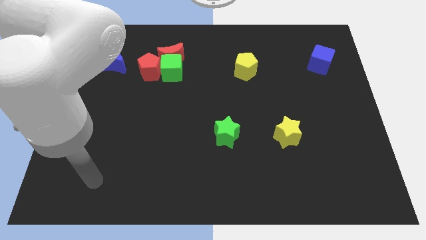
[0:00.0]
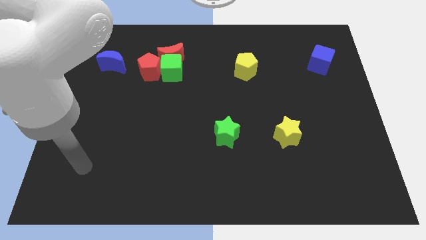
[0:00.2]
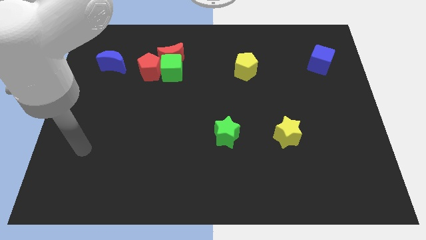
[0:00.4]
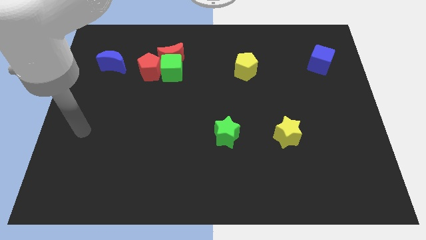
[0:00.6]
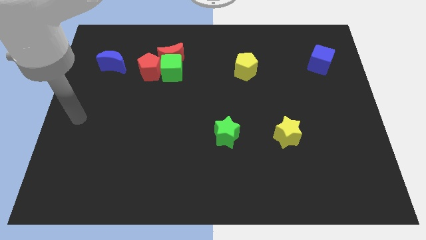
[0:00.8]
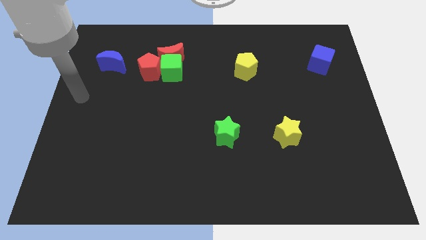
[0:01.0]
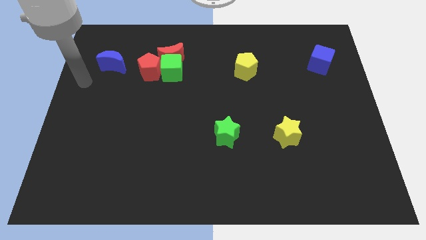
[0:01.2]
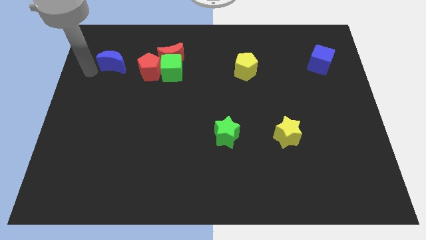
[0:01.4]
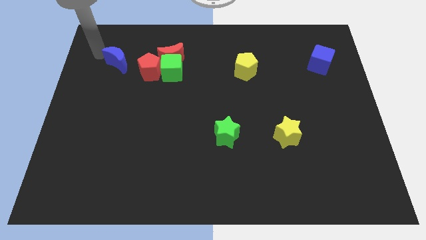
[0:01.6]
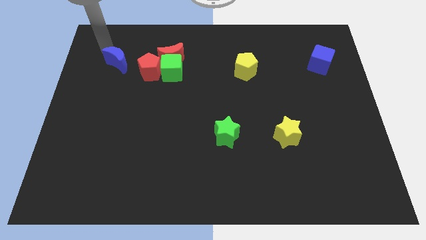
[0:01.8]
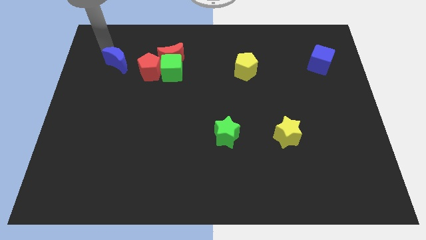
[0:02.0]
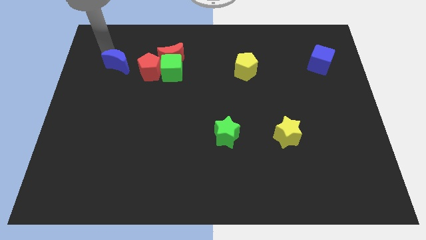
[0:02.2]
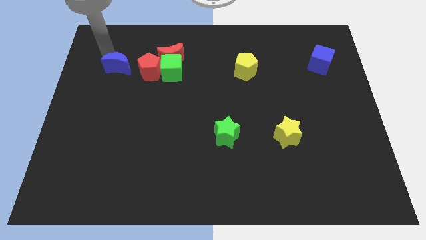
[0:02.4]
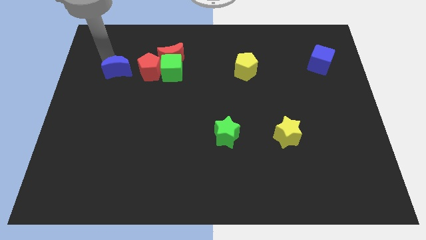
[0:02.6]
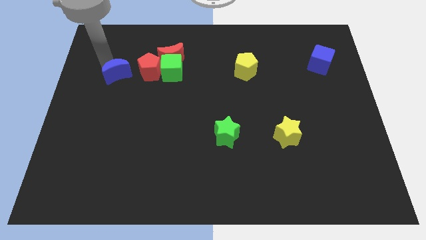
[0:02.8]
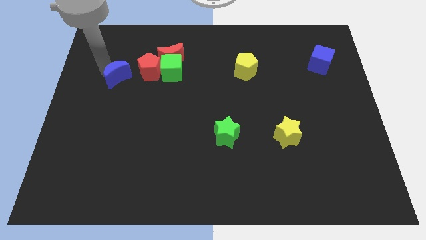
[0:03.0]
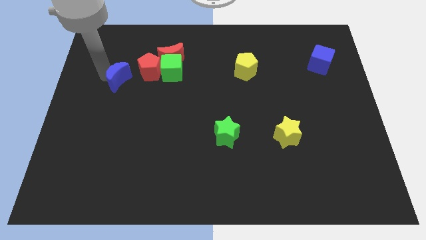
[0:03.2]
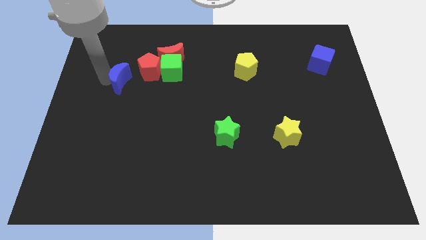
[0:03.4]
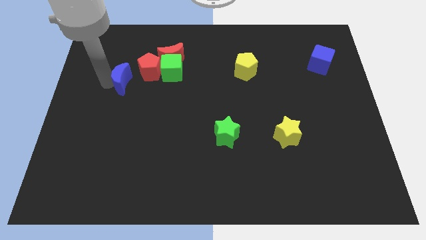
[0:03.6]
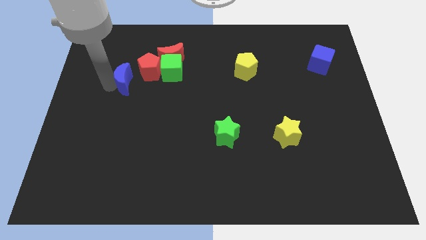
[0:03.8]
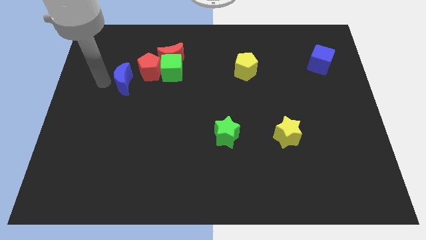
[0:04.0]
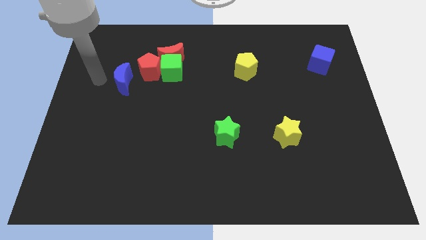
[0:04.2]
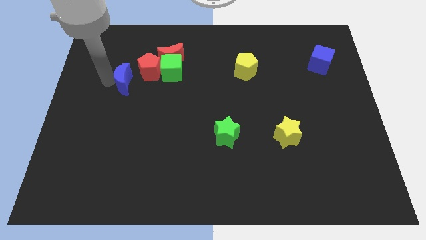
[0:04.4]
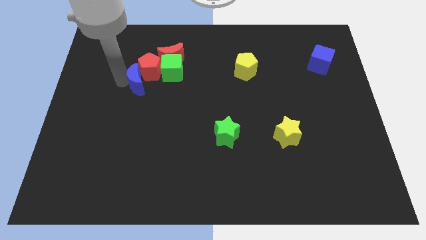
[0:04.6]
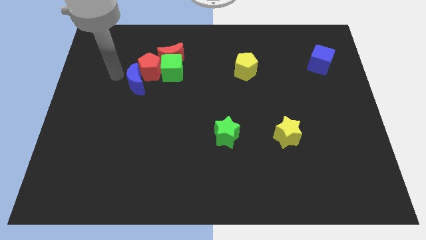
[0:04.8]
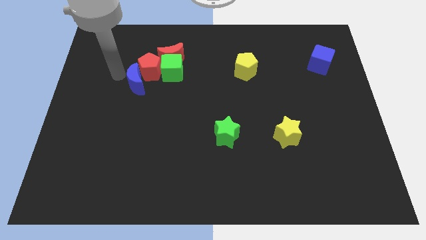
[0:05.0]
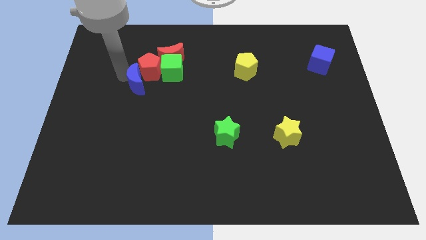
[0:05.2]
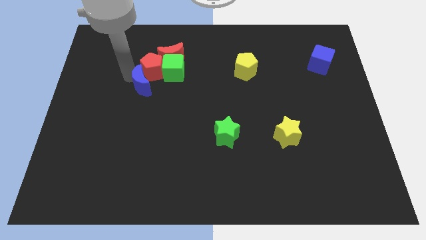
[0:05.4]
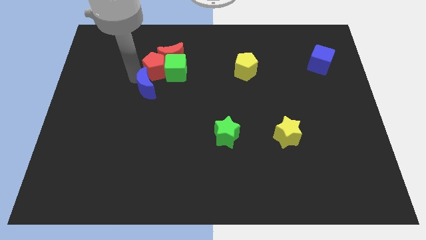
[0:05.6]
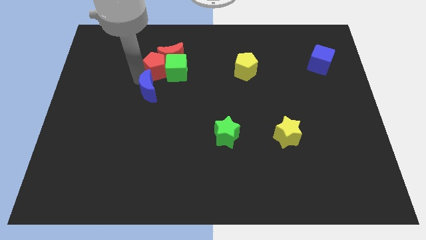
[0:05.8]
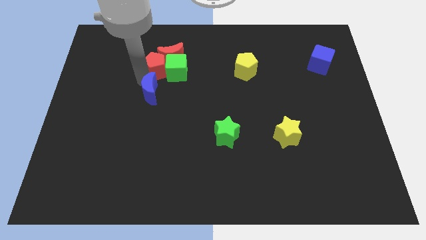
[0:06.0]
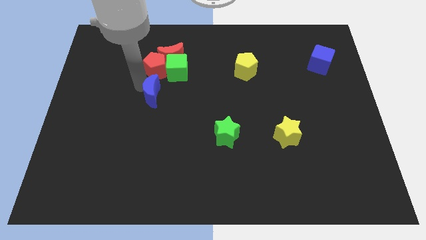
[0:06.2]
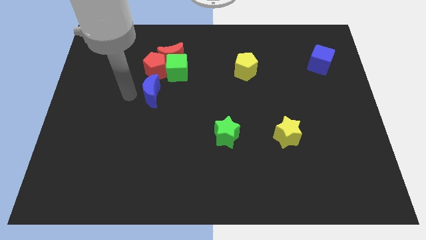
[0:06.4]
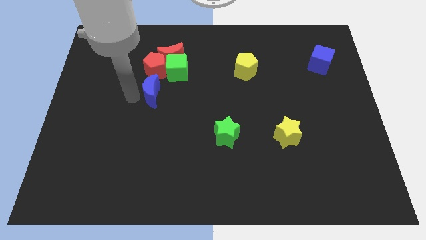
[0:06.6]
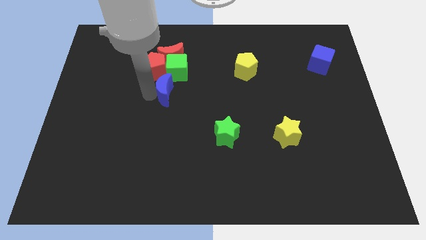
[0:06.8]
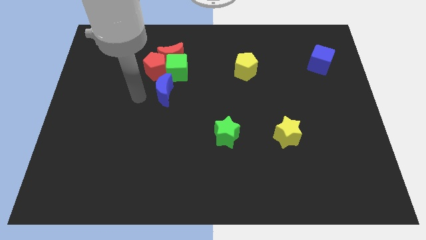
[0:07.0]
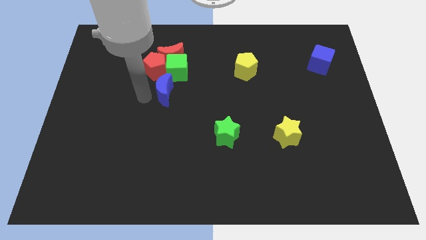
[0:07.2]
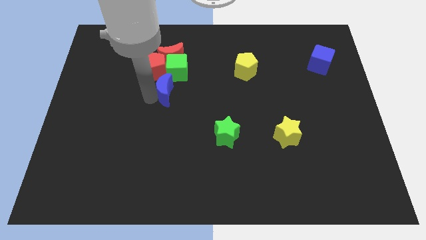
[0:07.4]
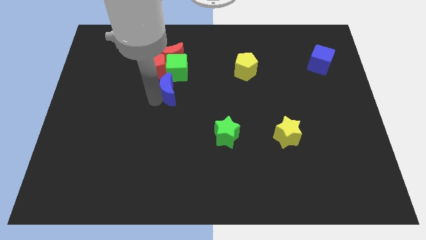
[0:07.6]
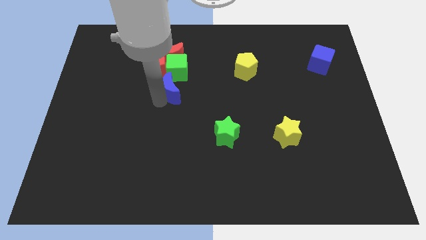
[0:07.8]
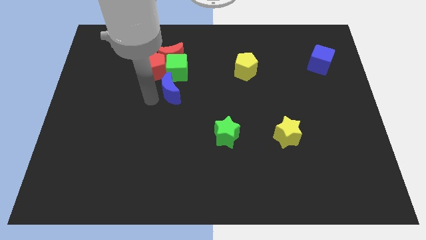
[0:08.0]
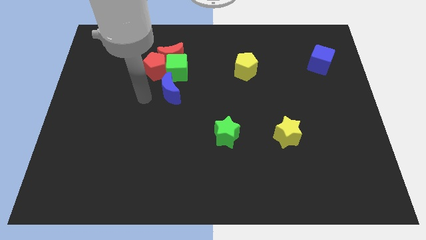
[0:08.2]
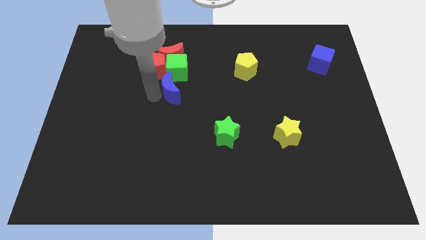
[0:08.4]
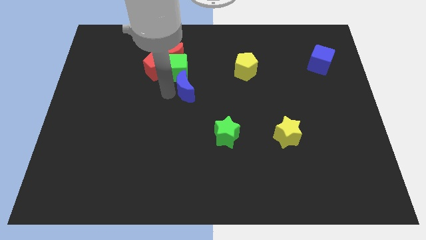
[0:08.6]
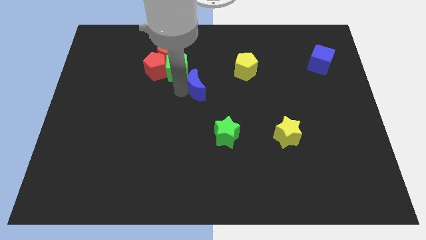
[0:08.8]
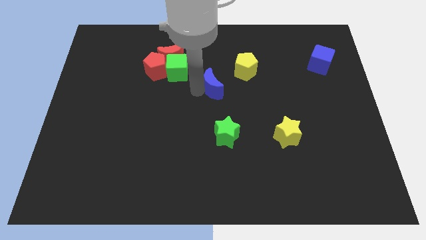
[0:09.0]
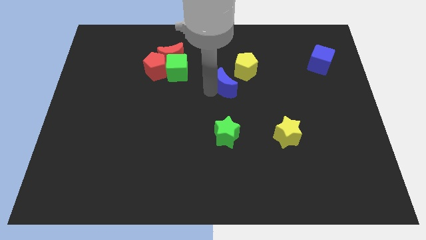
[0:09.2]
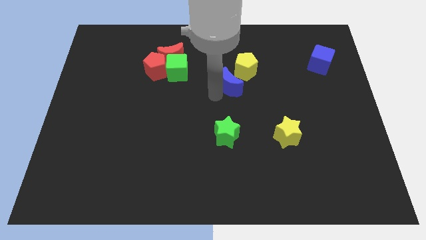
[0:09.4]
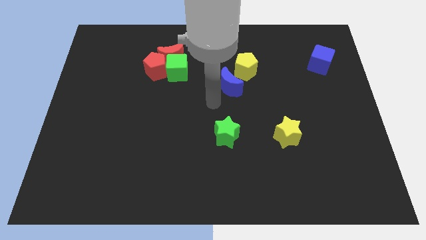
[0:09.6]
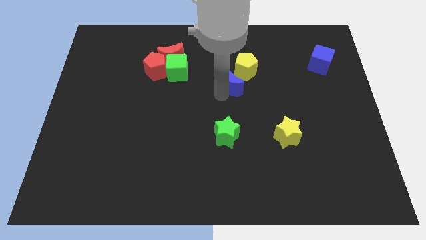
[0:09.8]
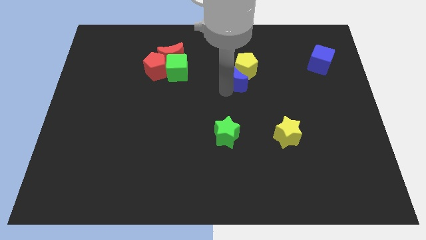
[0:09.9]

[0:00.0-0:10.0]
put the blue moon towards the yellow pentagon

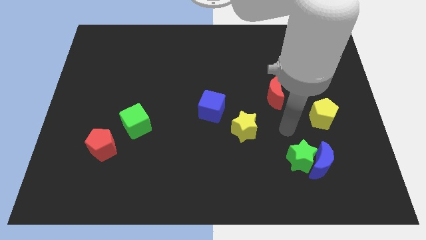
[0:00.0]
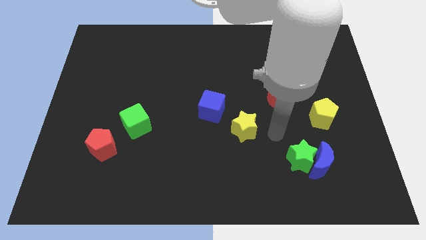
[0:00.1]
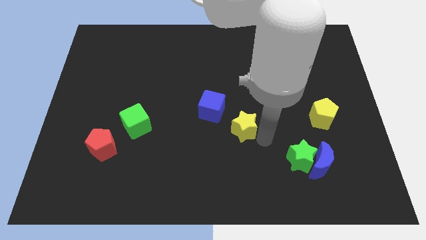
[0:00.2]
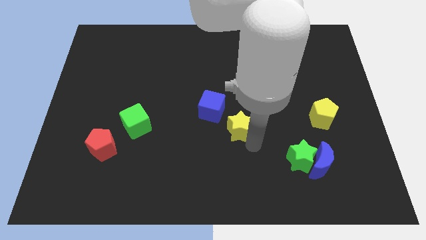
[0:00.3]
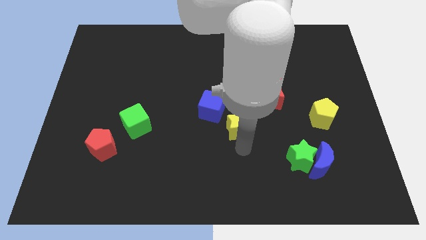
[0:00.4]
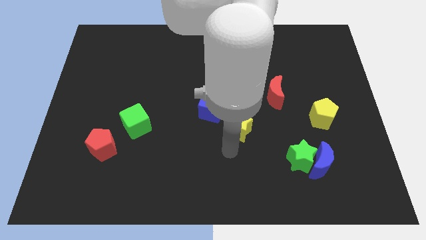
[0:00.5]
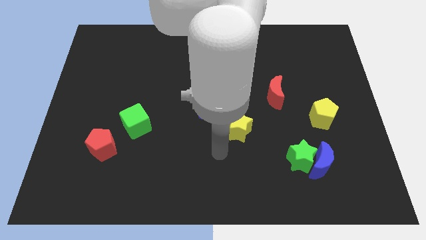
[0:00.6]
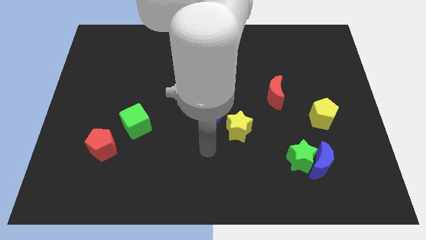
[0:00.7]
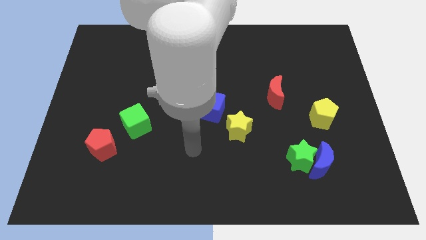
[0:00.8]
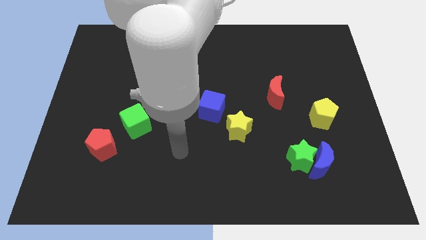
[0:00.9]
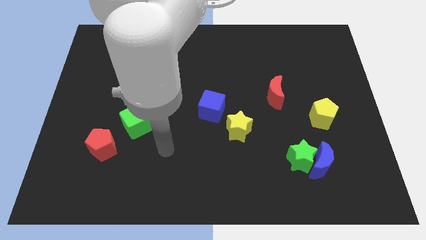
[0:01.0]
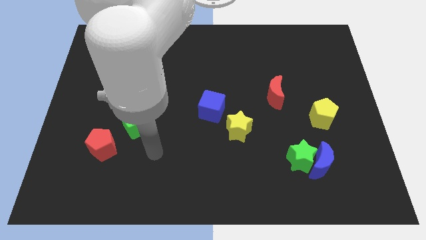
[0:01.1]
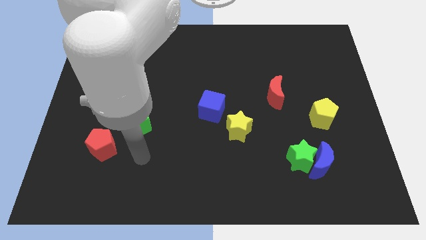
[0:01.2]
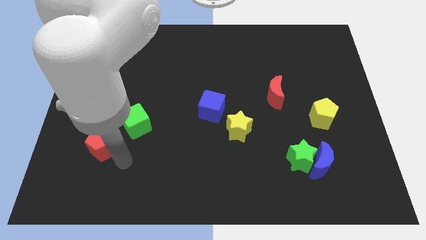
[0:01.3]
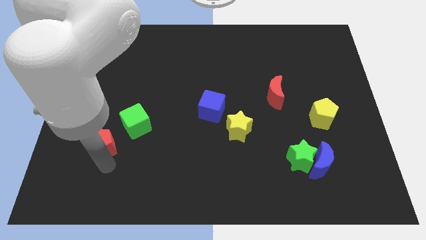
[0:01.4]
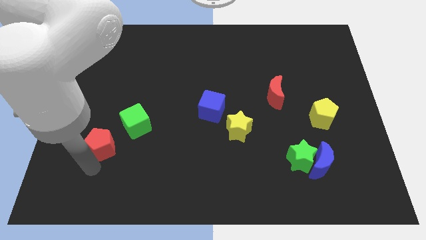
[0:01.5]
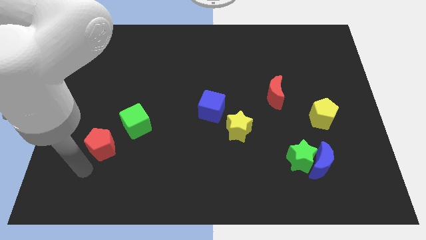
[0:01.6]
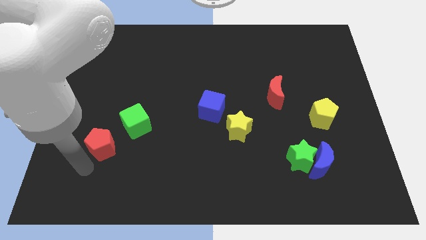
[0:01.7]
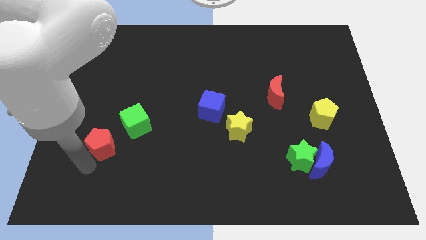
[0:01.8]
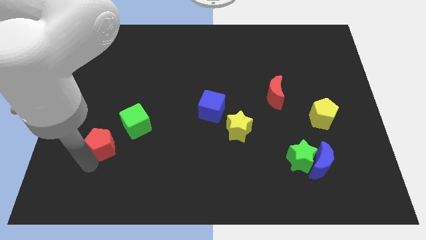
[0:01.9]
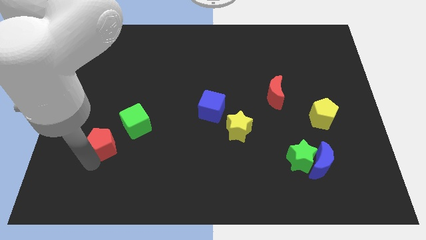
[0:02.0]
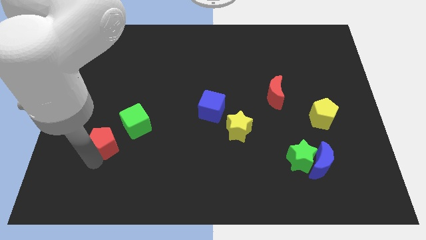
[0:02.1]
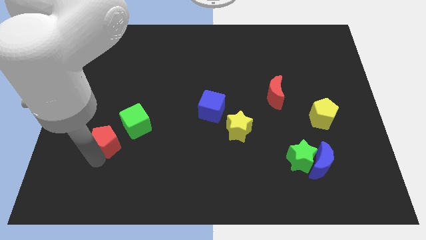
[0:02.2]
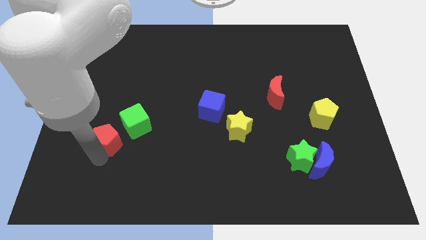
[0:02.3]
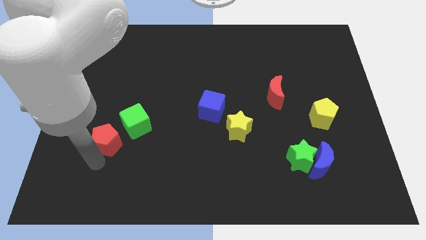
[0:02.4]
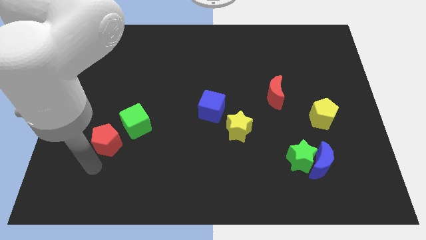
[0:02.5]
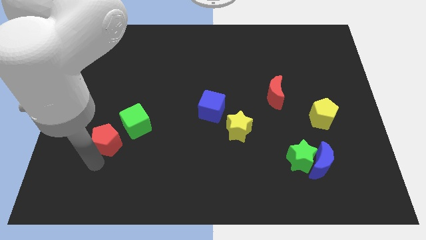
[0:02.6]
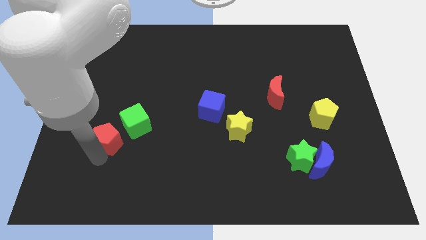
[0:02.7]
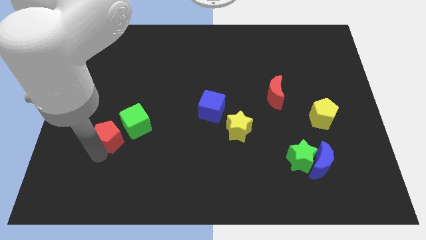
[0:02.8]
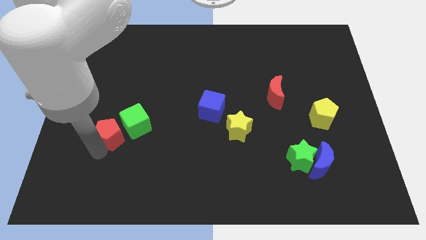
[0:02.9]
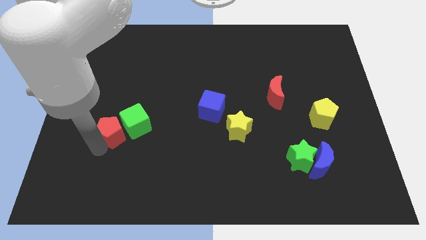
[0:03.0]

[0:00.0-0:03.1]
move the red pentagon next to the green cube
